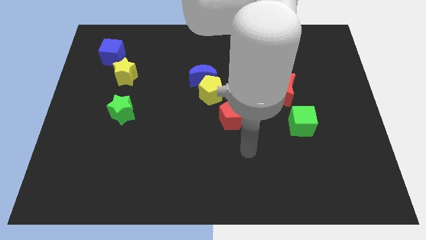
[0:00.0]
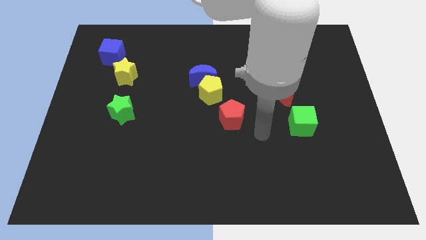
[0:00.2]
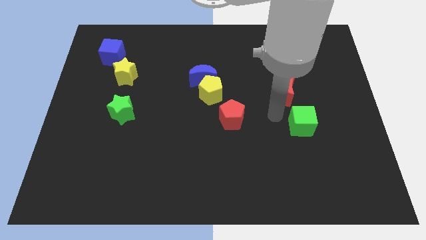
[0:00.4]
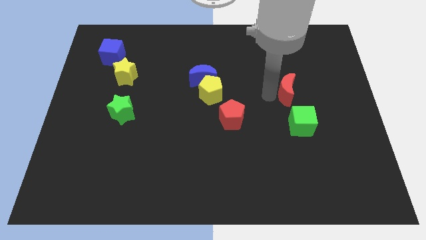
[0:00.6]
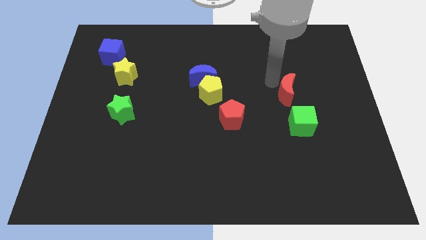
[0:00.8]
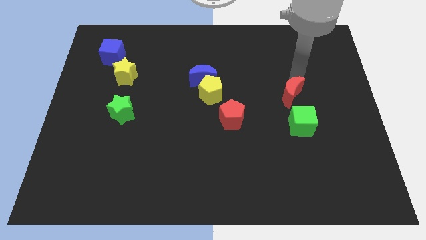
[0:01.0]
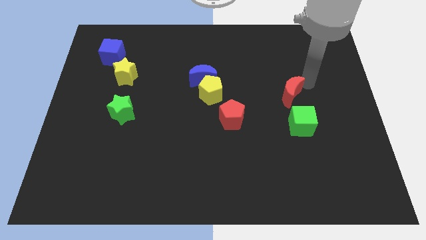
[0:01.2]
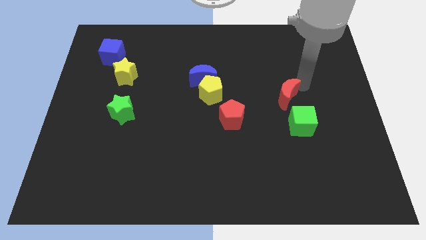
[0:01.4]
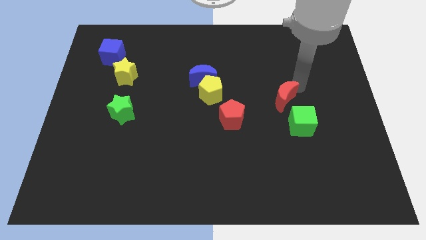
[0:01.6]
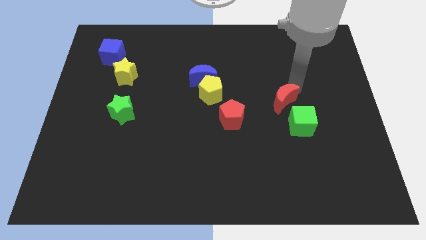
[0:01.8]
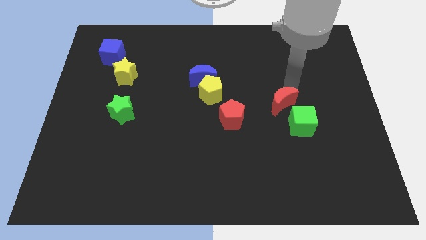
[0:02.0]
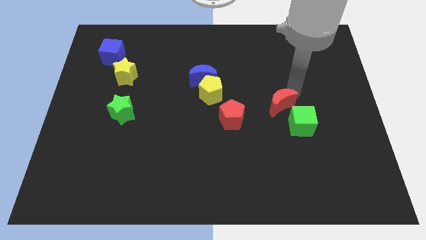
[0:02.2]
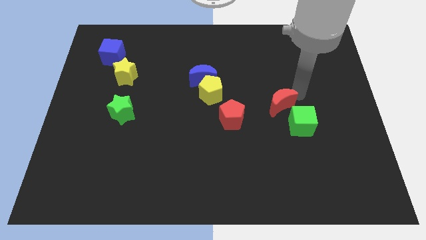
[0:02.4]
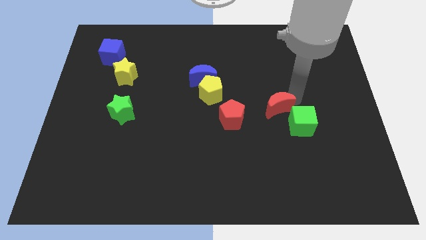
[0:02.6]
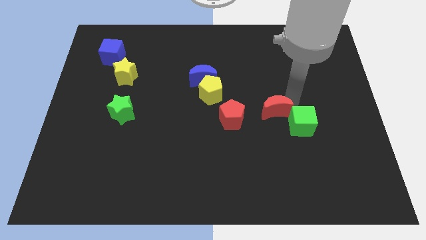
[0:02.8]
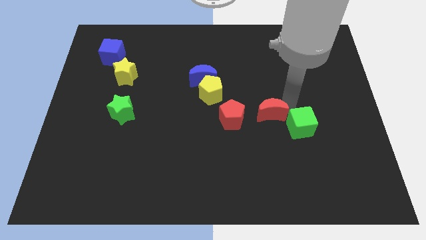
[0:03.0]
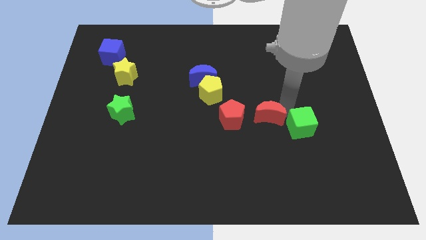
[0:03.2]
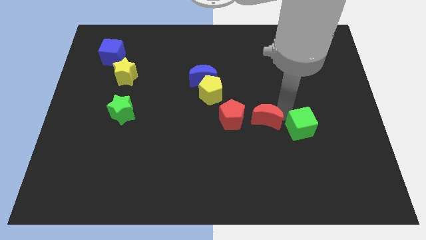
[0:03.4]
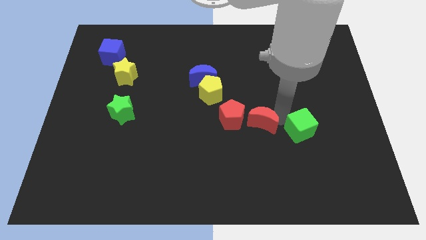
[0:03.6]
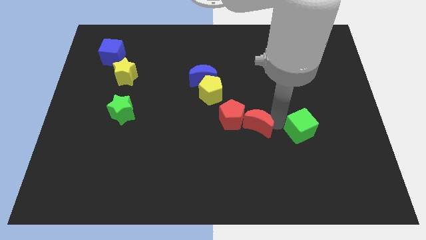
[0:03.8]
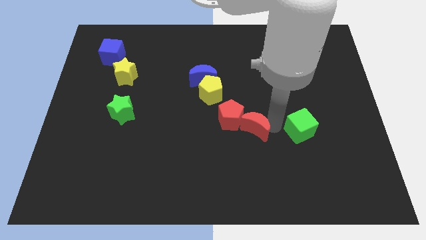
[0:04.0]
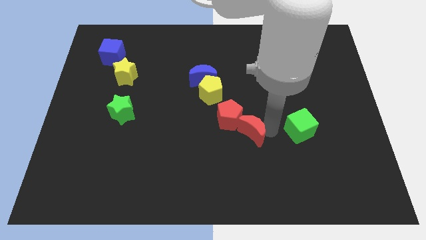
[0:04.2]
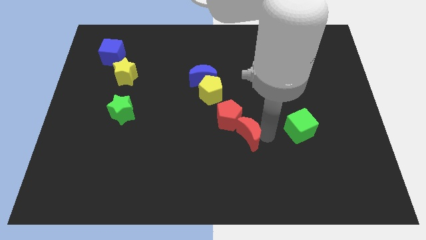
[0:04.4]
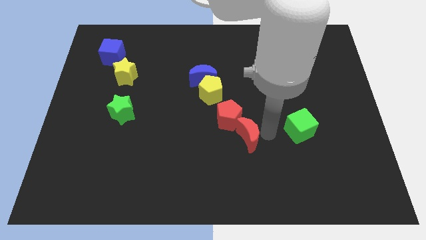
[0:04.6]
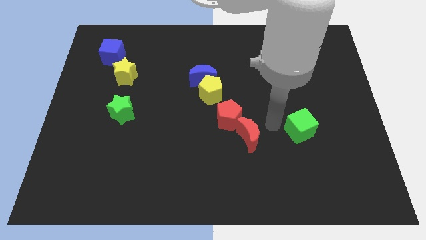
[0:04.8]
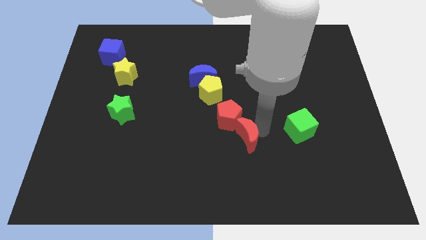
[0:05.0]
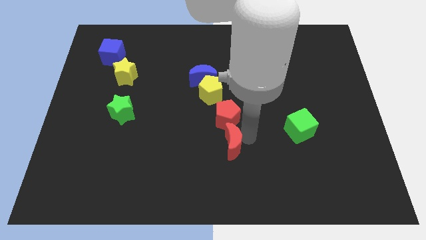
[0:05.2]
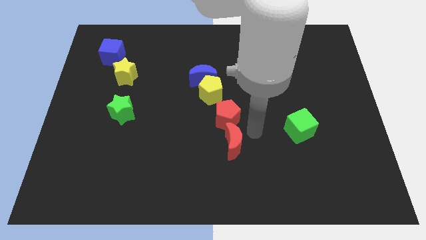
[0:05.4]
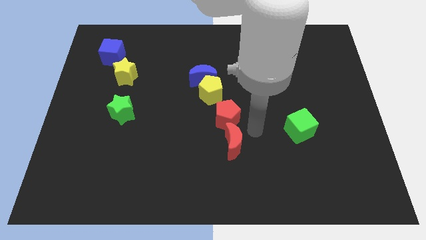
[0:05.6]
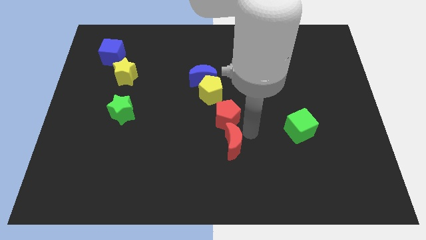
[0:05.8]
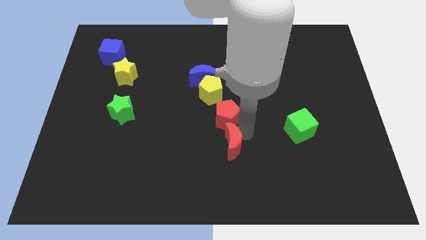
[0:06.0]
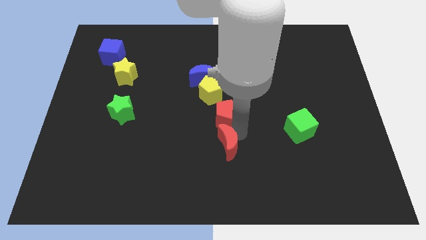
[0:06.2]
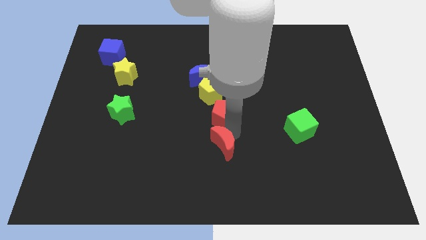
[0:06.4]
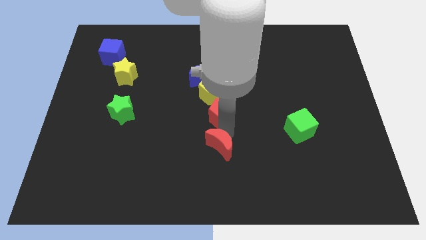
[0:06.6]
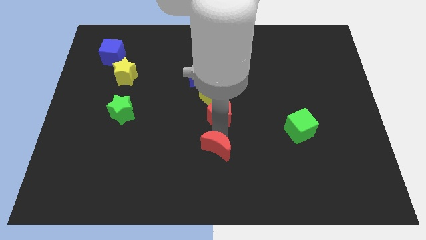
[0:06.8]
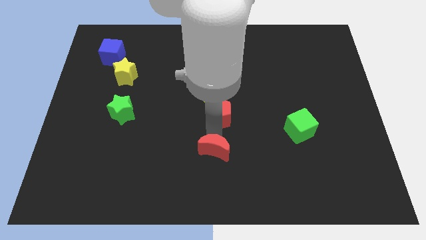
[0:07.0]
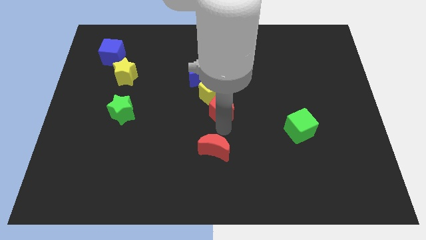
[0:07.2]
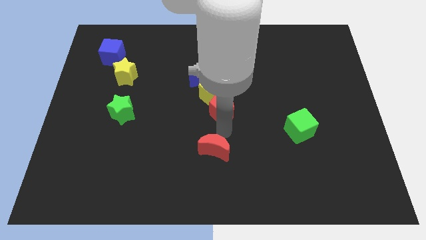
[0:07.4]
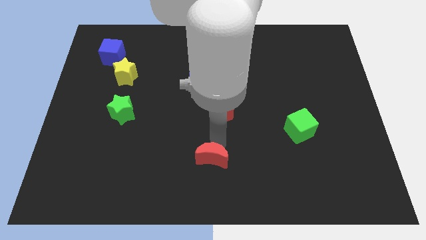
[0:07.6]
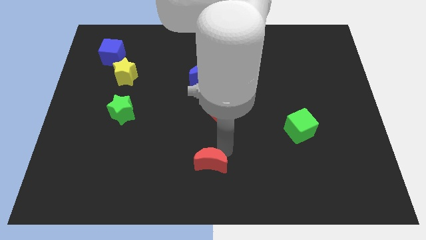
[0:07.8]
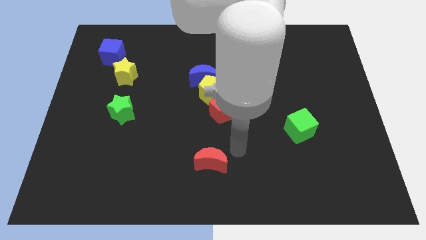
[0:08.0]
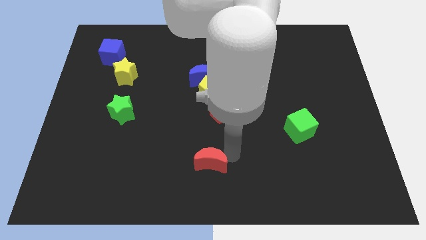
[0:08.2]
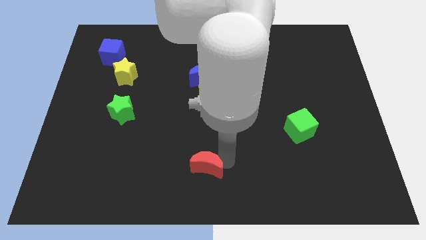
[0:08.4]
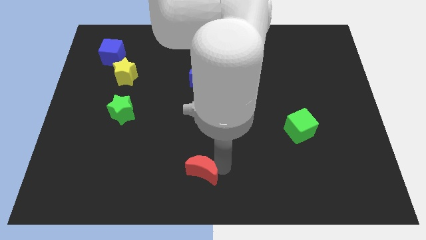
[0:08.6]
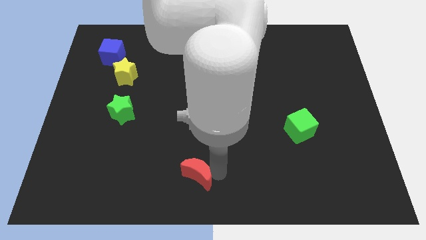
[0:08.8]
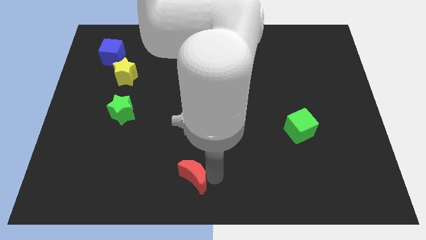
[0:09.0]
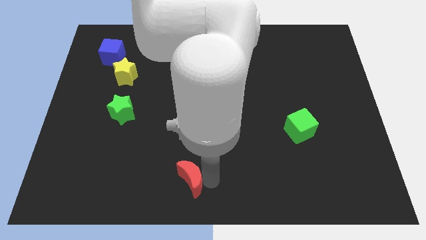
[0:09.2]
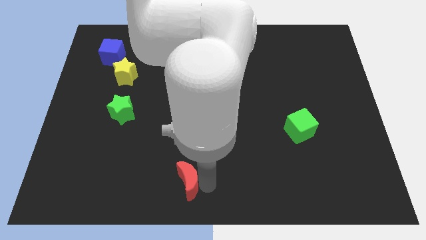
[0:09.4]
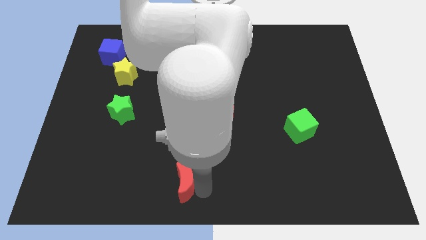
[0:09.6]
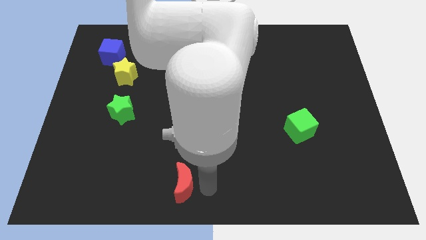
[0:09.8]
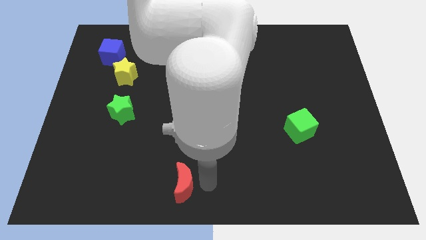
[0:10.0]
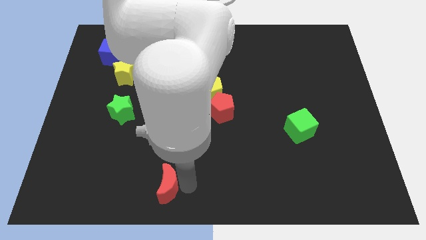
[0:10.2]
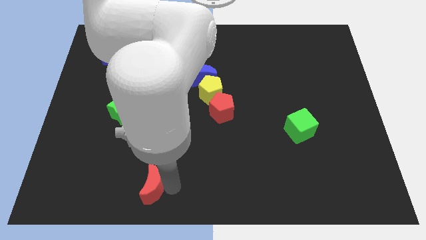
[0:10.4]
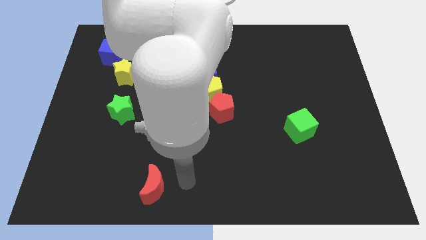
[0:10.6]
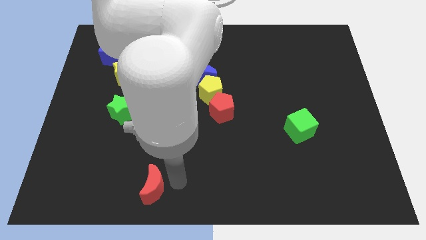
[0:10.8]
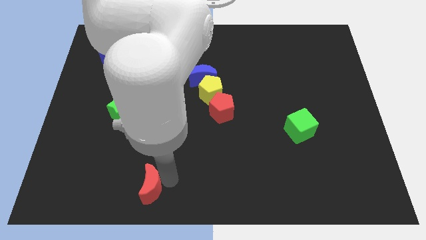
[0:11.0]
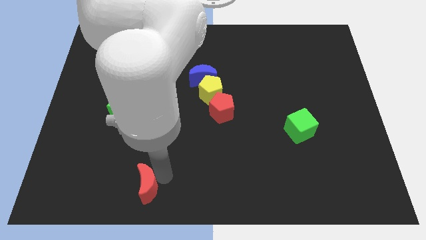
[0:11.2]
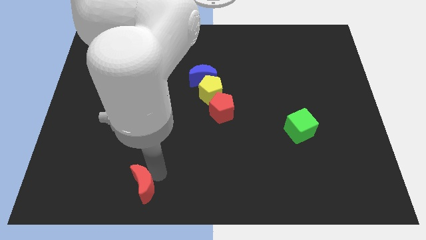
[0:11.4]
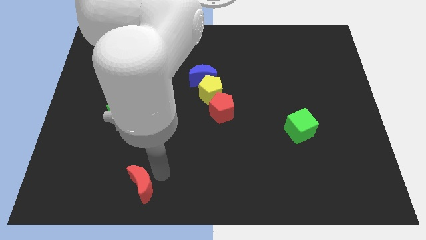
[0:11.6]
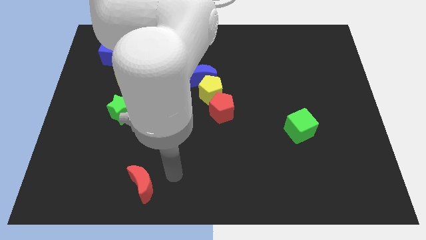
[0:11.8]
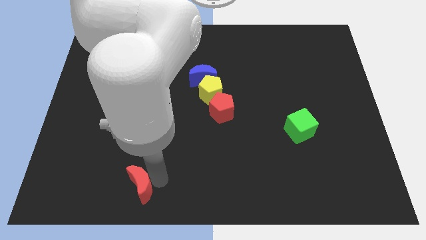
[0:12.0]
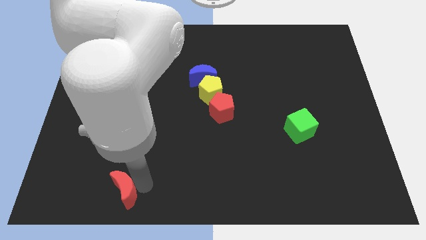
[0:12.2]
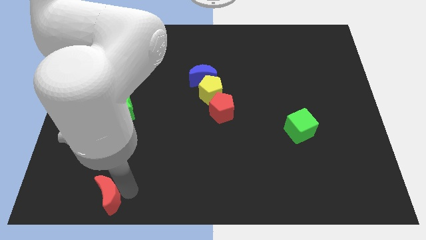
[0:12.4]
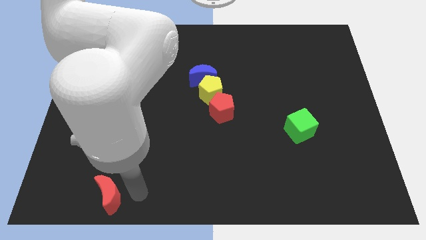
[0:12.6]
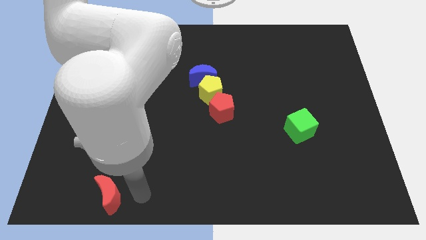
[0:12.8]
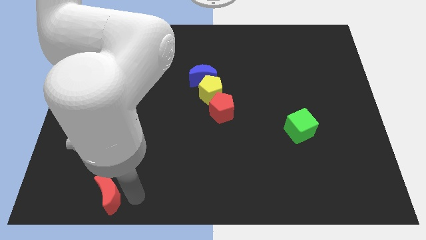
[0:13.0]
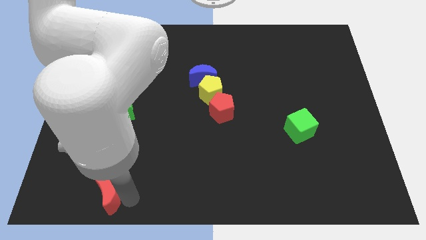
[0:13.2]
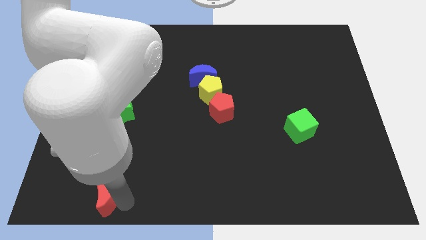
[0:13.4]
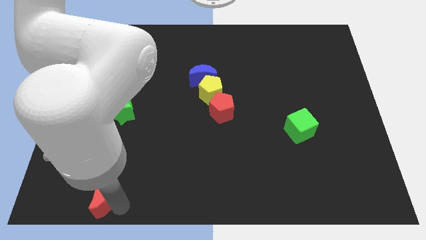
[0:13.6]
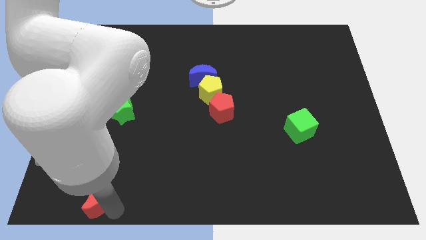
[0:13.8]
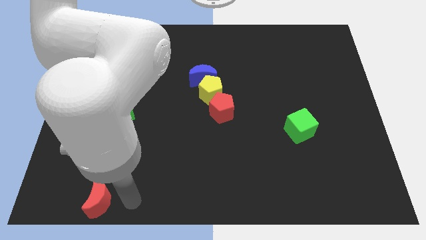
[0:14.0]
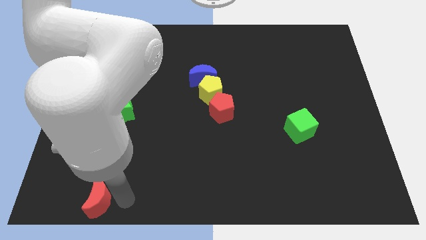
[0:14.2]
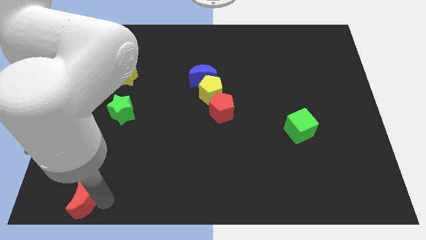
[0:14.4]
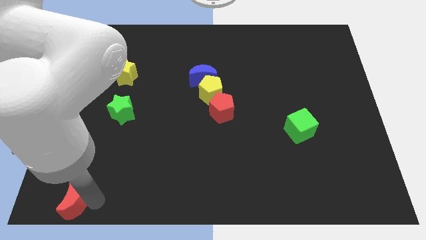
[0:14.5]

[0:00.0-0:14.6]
push the red moon to the bottom left corner

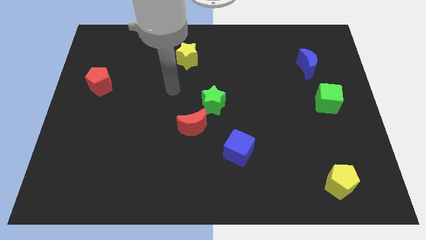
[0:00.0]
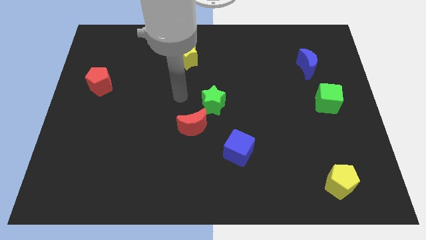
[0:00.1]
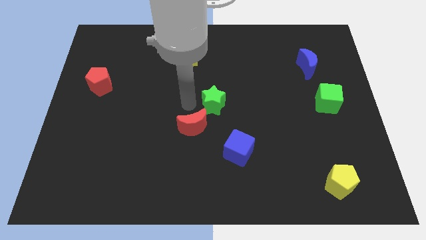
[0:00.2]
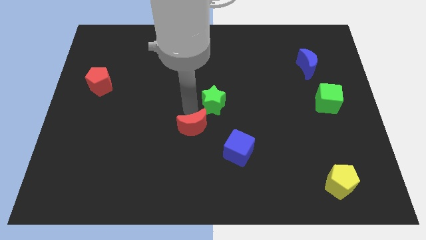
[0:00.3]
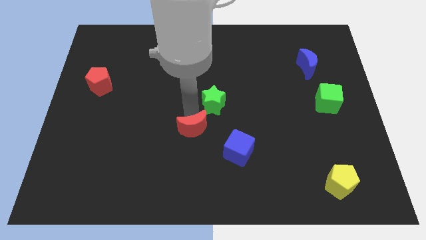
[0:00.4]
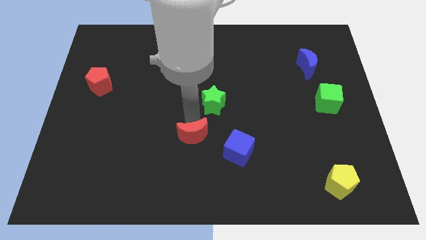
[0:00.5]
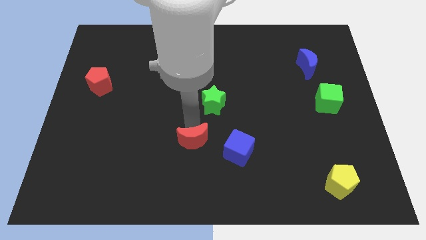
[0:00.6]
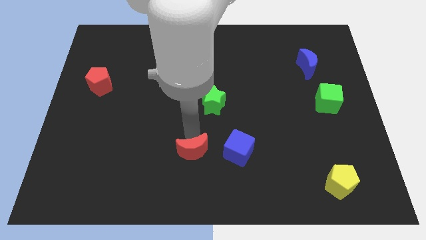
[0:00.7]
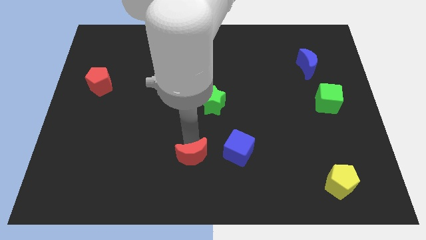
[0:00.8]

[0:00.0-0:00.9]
move the red moon to the bottom side
